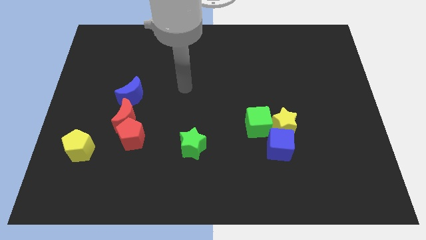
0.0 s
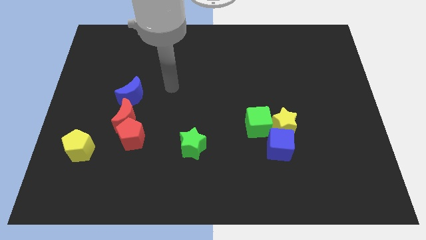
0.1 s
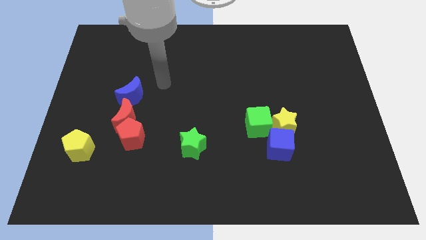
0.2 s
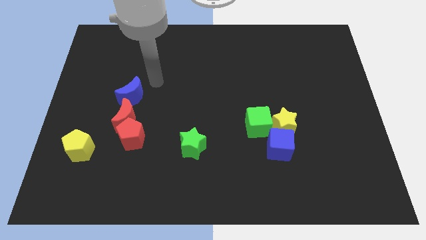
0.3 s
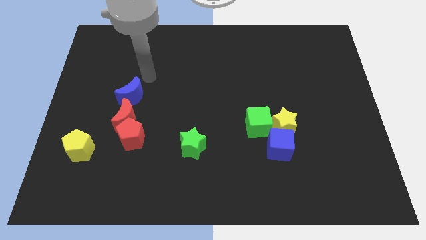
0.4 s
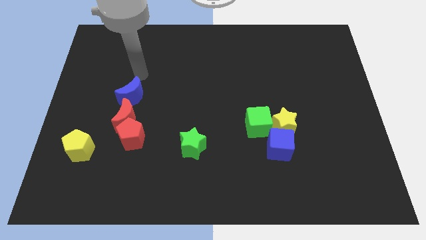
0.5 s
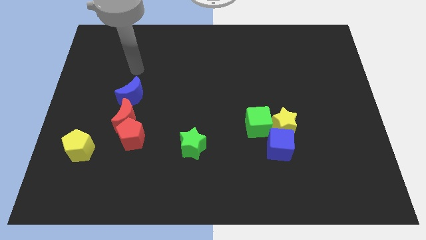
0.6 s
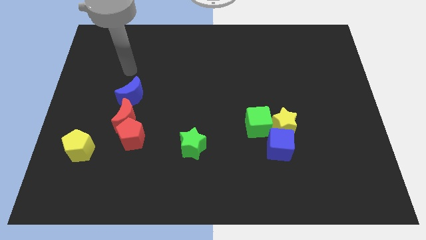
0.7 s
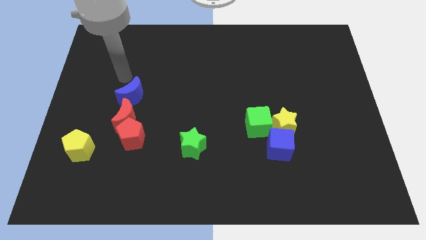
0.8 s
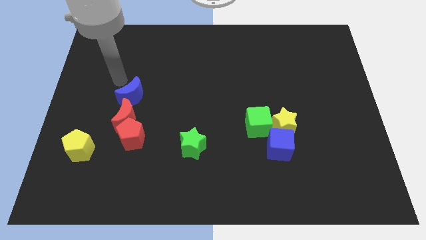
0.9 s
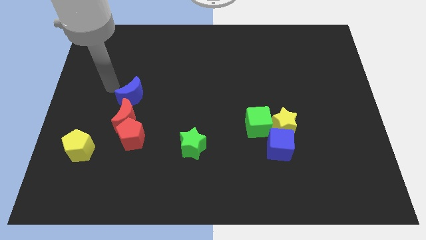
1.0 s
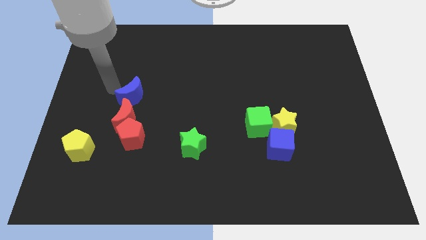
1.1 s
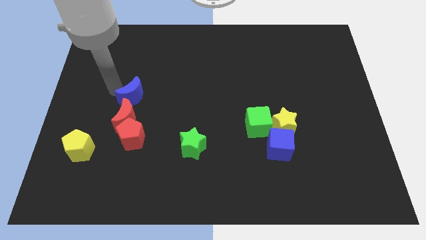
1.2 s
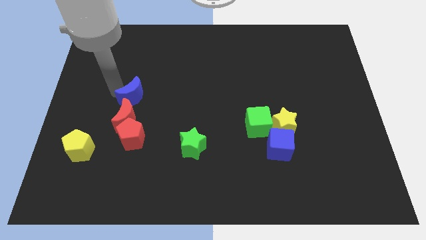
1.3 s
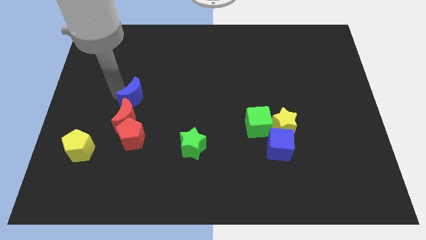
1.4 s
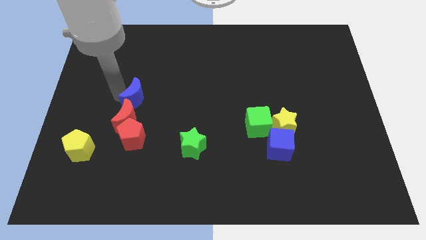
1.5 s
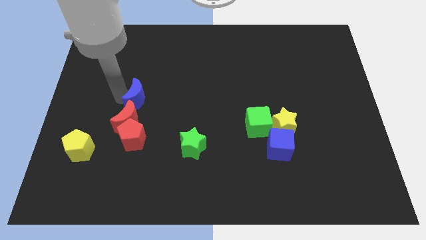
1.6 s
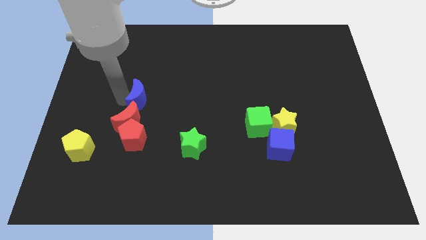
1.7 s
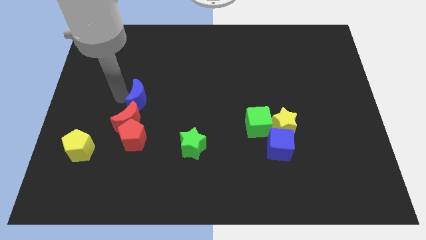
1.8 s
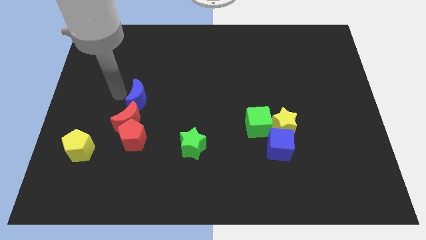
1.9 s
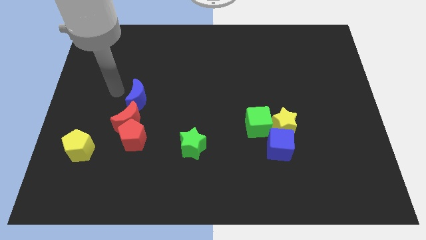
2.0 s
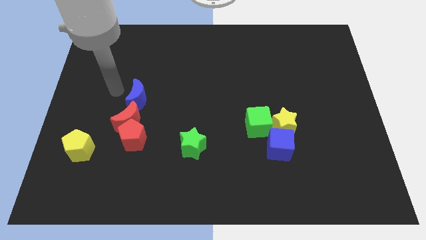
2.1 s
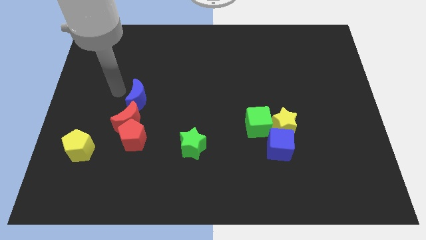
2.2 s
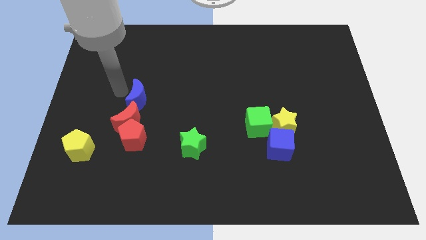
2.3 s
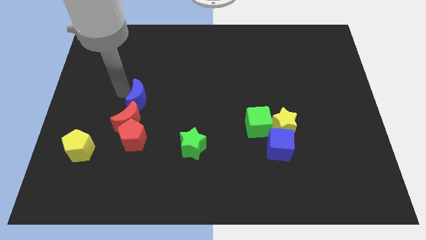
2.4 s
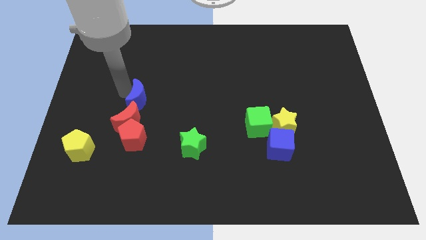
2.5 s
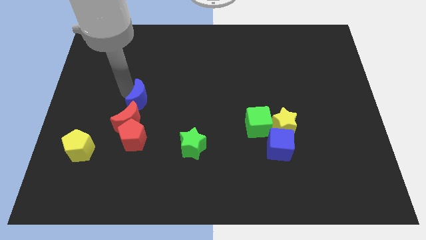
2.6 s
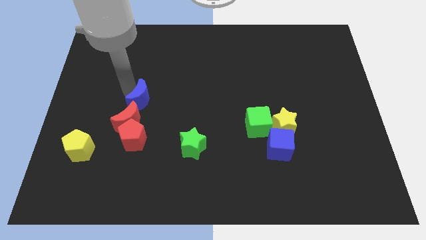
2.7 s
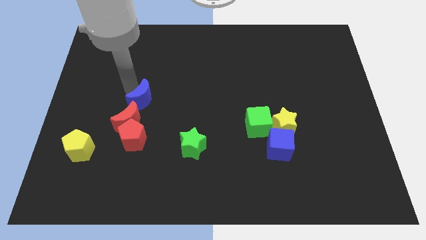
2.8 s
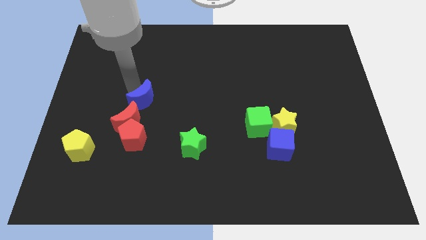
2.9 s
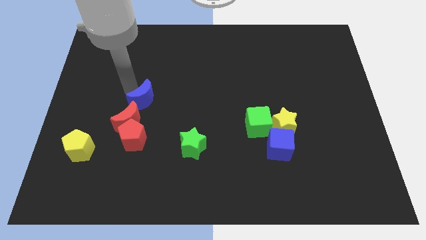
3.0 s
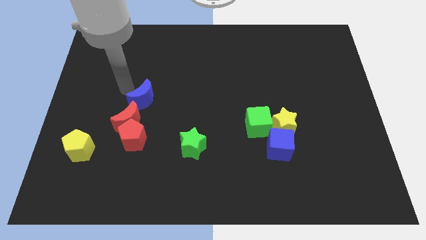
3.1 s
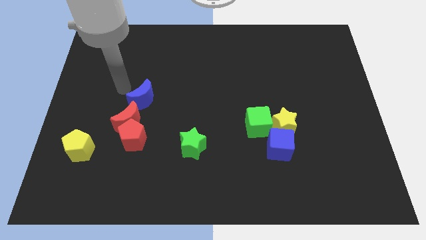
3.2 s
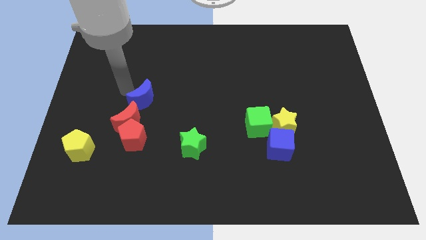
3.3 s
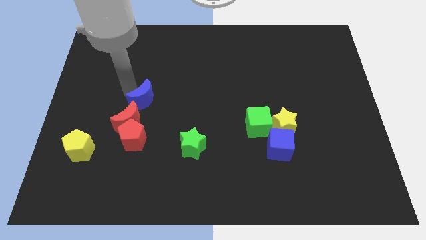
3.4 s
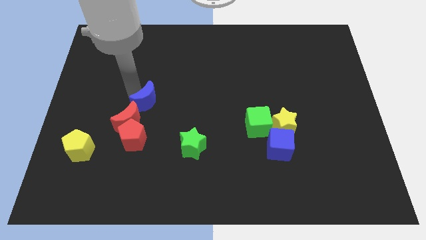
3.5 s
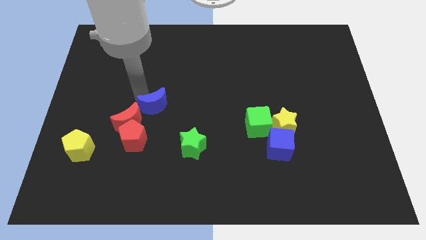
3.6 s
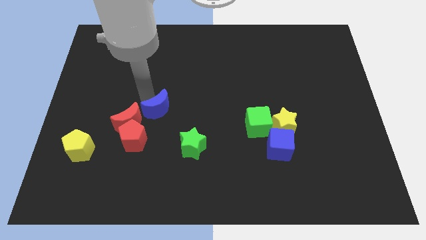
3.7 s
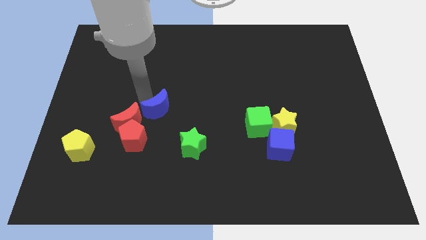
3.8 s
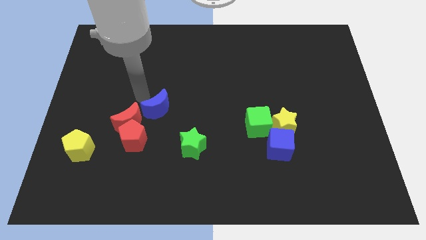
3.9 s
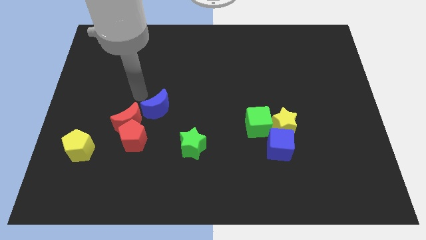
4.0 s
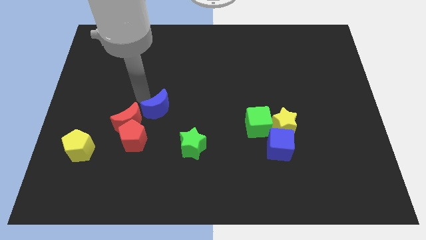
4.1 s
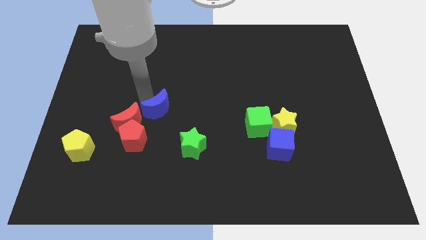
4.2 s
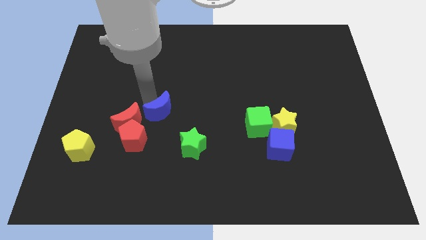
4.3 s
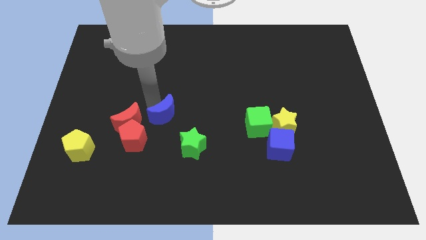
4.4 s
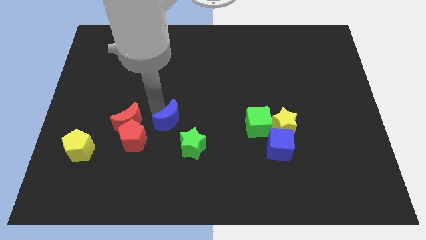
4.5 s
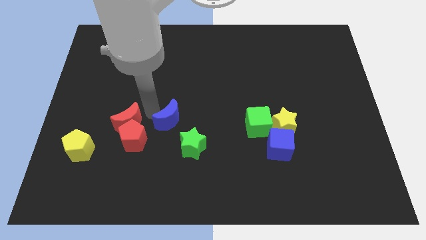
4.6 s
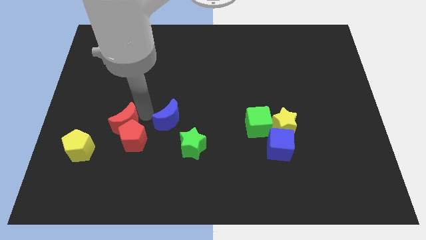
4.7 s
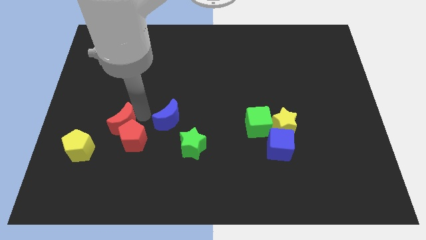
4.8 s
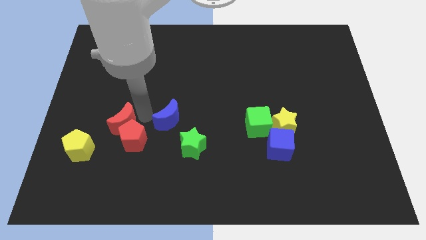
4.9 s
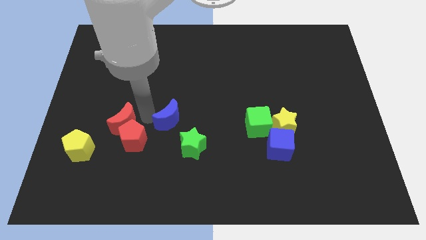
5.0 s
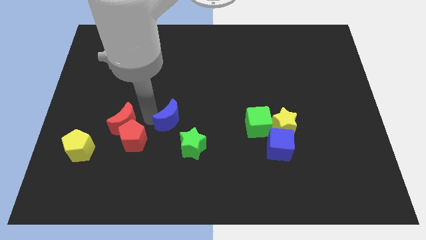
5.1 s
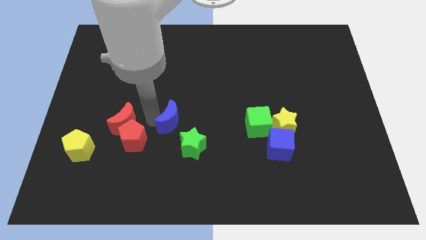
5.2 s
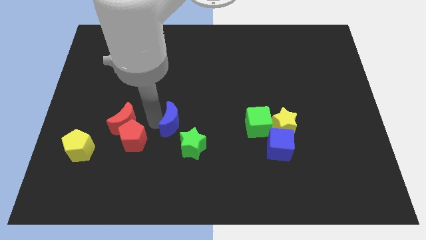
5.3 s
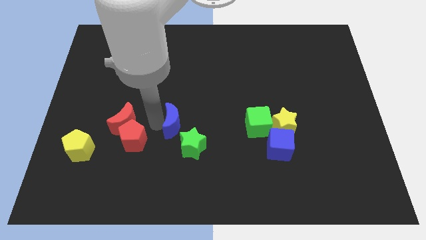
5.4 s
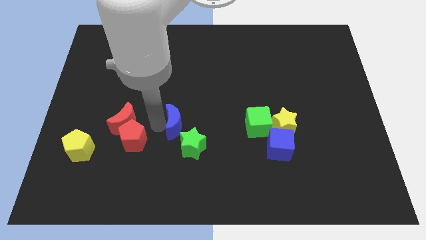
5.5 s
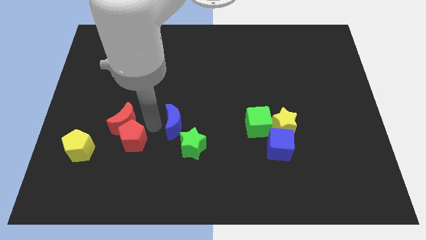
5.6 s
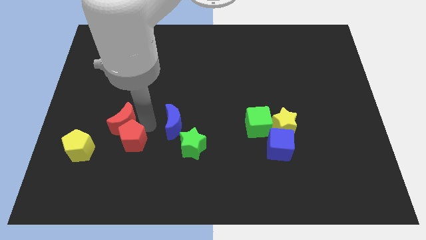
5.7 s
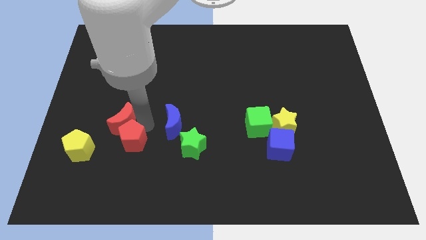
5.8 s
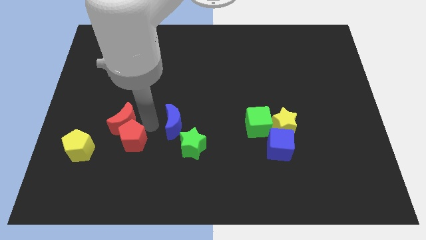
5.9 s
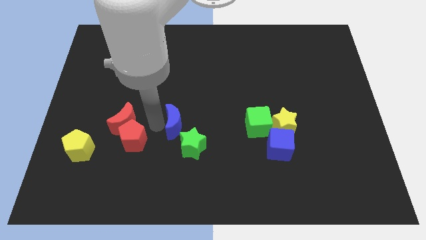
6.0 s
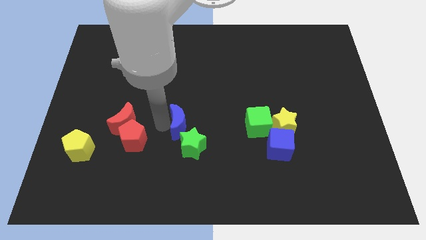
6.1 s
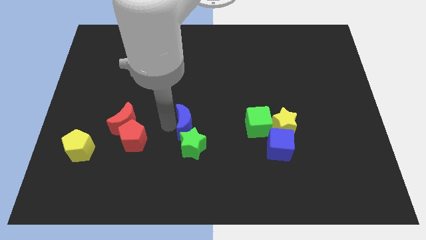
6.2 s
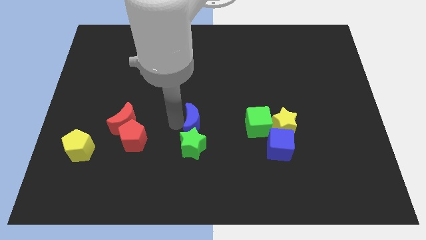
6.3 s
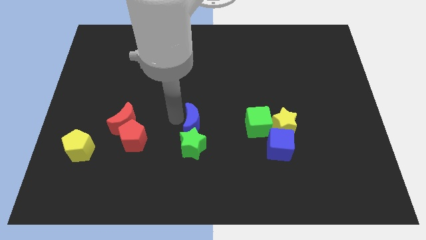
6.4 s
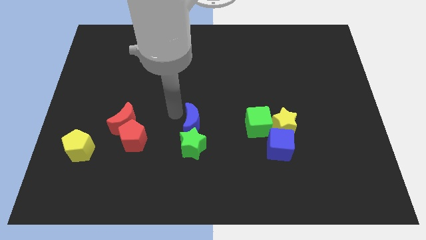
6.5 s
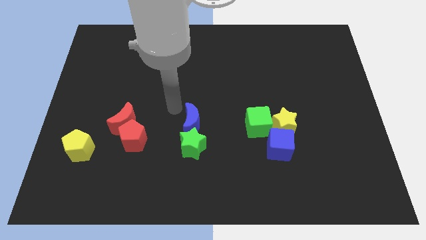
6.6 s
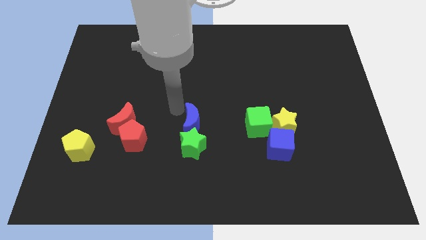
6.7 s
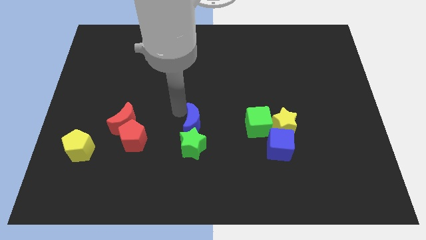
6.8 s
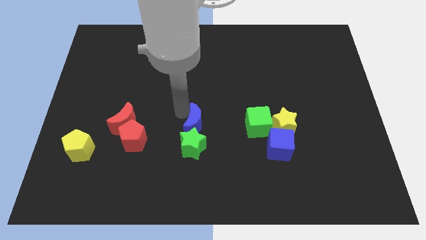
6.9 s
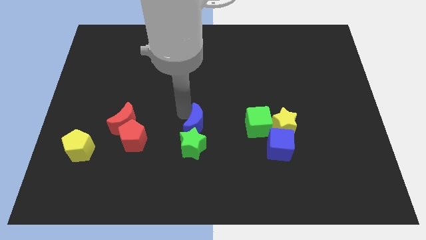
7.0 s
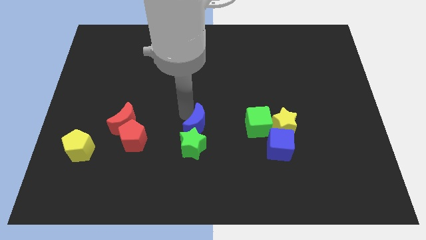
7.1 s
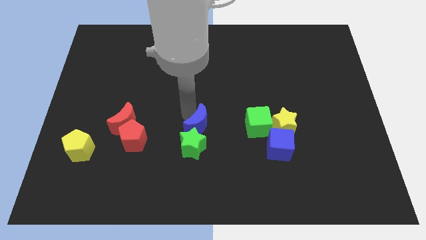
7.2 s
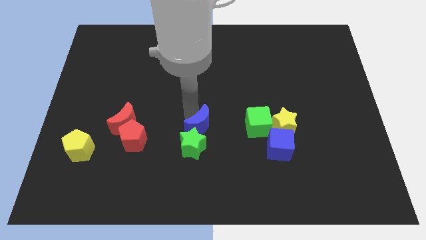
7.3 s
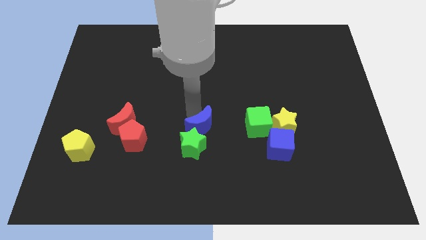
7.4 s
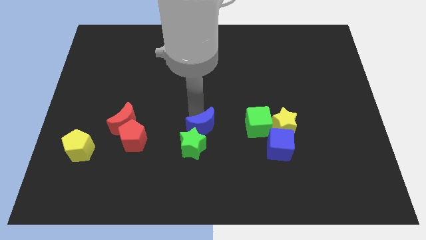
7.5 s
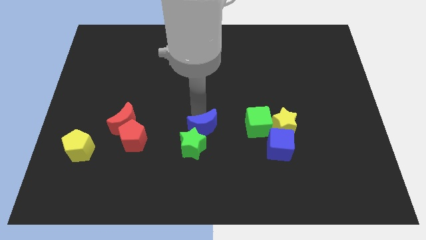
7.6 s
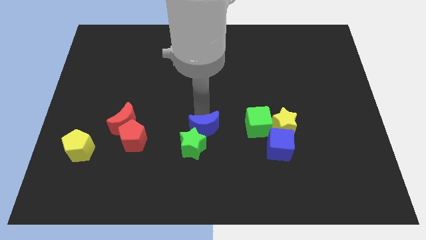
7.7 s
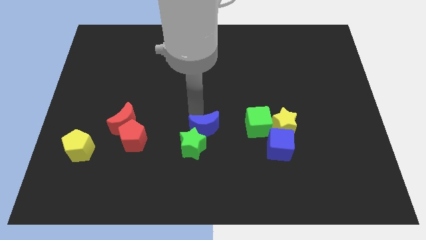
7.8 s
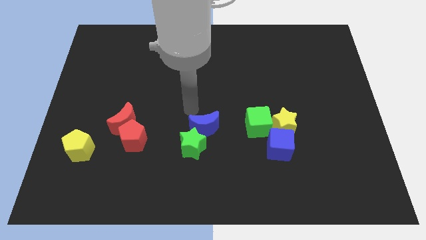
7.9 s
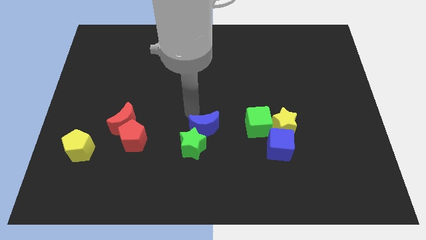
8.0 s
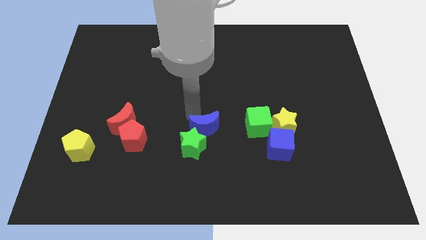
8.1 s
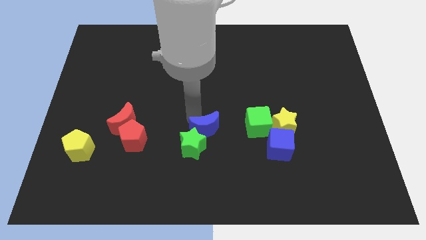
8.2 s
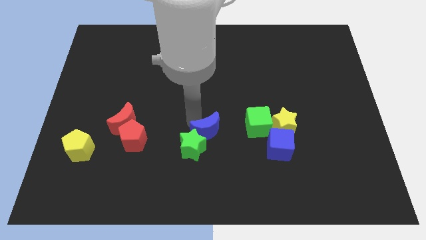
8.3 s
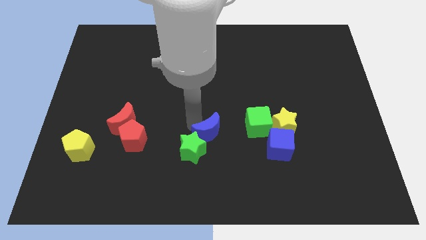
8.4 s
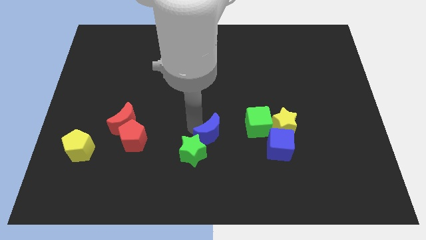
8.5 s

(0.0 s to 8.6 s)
push the blue moon downwards and to the right
